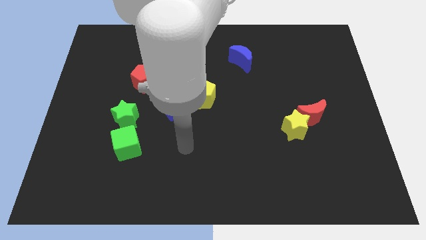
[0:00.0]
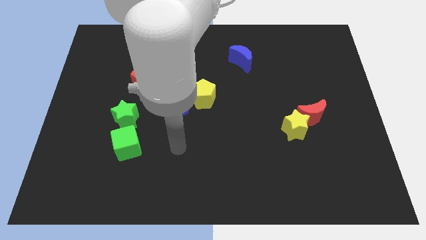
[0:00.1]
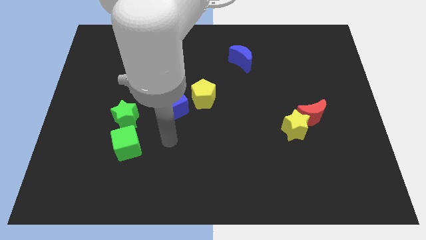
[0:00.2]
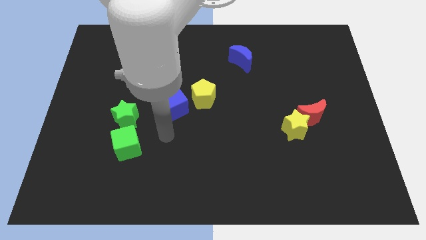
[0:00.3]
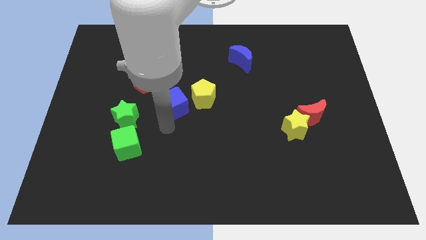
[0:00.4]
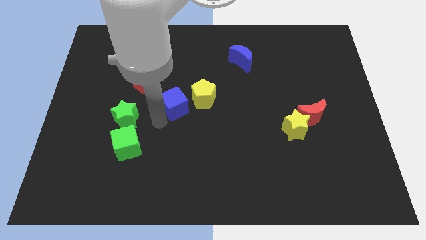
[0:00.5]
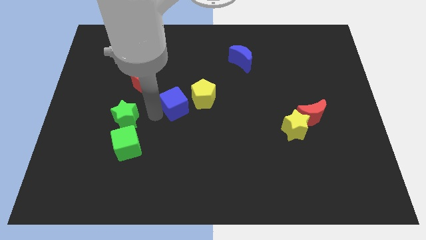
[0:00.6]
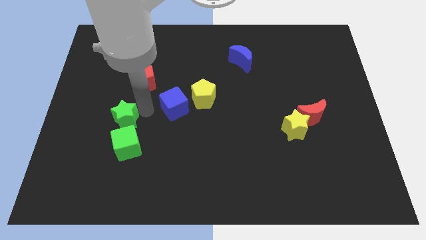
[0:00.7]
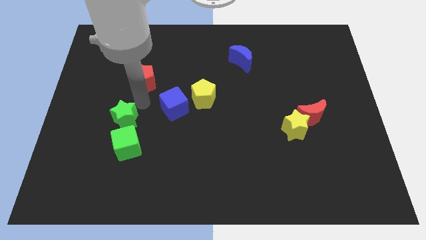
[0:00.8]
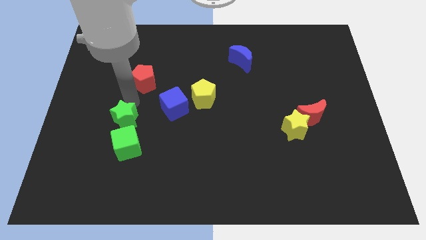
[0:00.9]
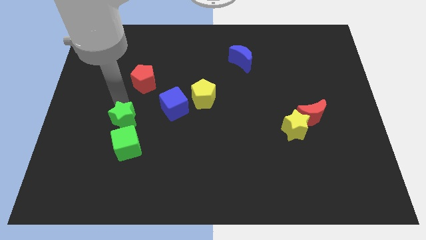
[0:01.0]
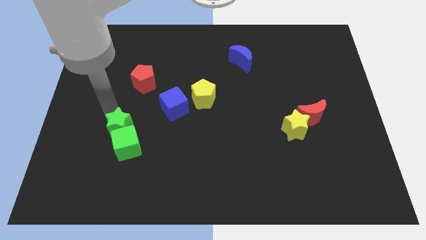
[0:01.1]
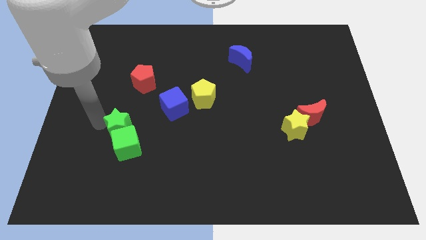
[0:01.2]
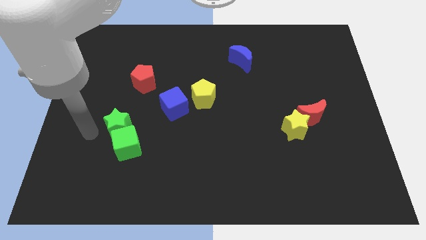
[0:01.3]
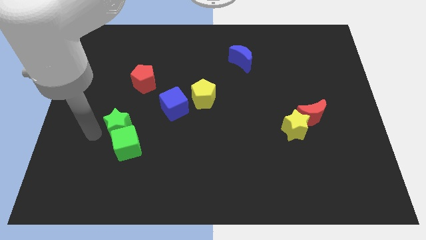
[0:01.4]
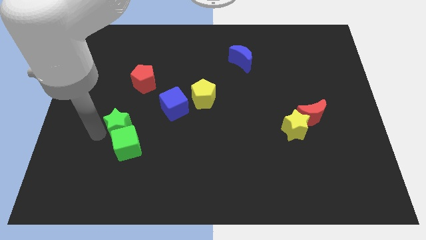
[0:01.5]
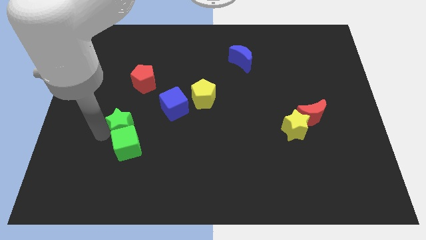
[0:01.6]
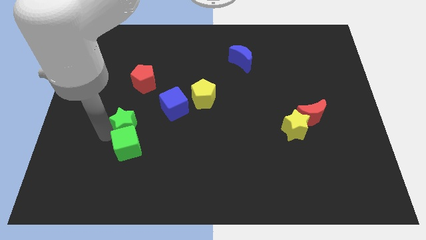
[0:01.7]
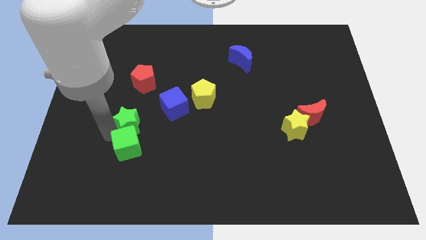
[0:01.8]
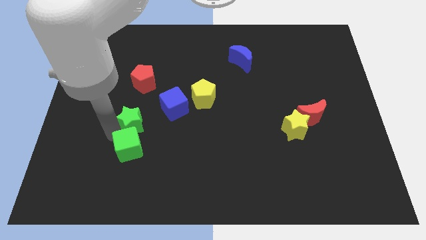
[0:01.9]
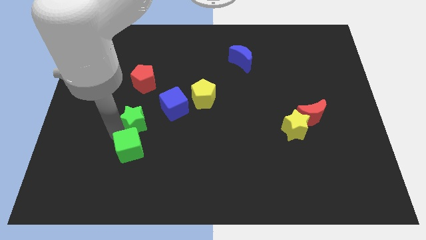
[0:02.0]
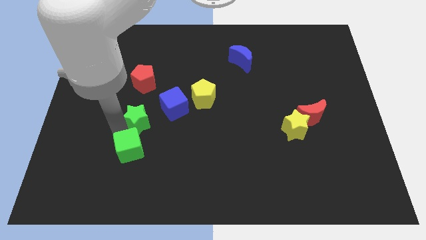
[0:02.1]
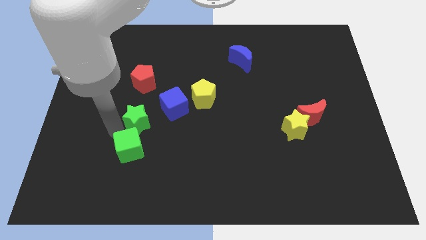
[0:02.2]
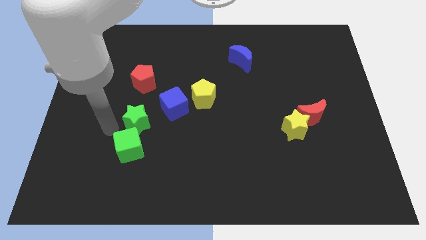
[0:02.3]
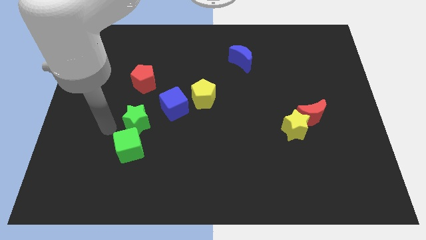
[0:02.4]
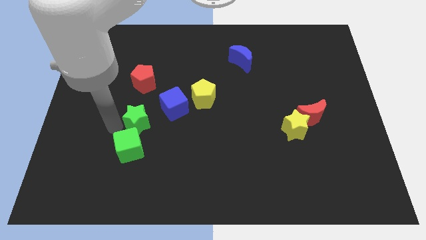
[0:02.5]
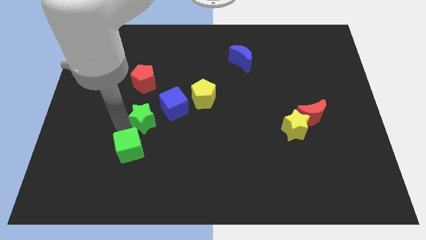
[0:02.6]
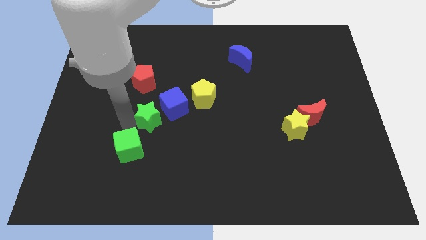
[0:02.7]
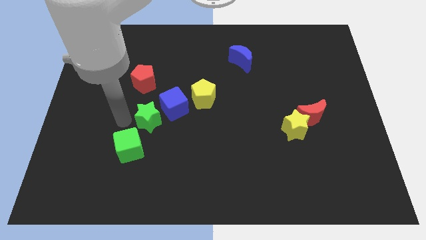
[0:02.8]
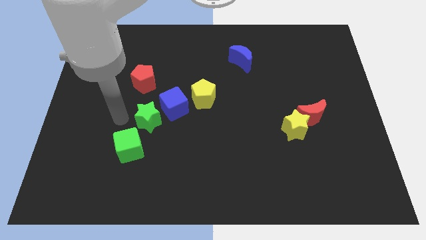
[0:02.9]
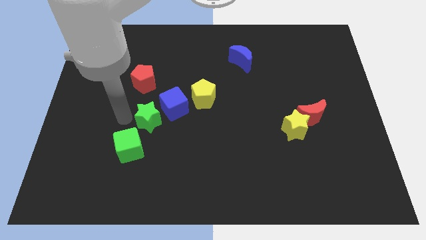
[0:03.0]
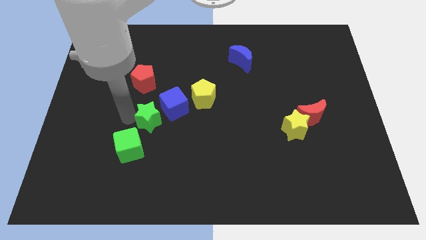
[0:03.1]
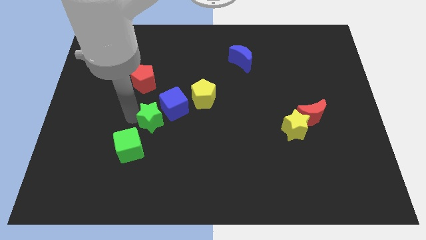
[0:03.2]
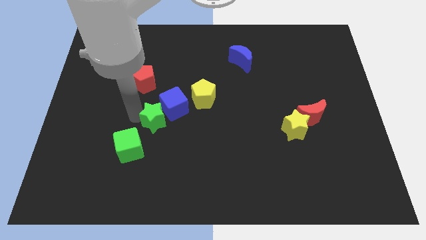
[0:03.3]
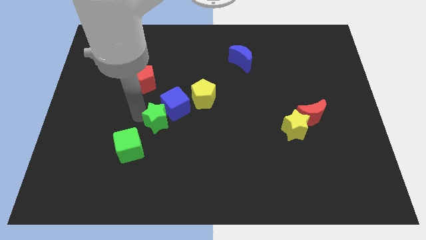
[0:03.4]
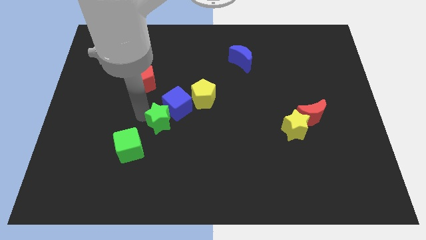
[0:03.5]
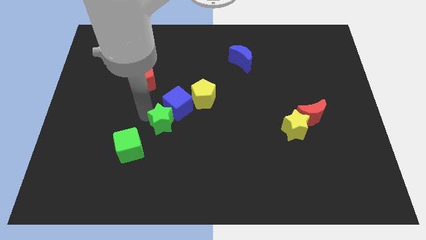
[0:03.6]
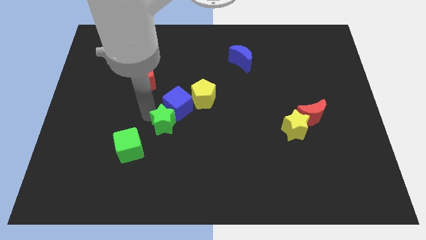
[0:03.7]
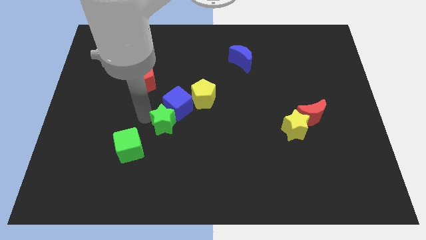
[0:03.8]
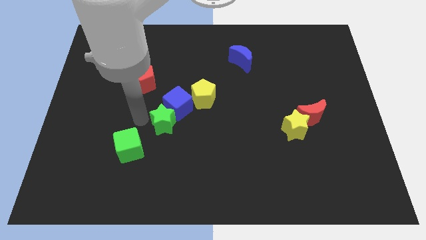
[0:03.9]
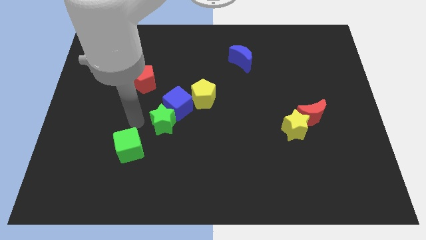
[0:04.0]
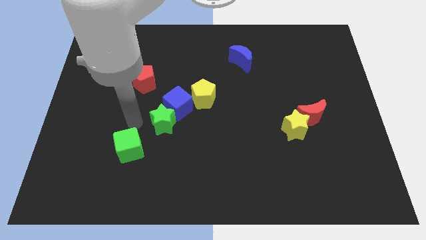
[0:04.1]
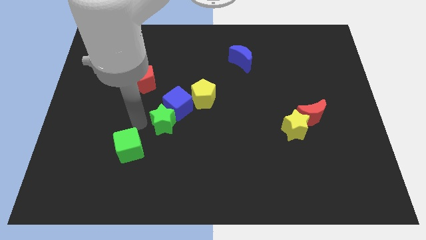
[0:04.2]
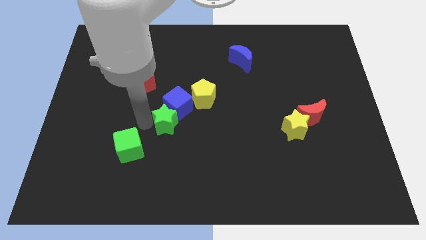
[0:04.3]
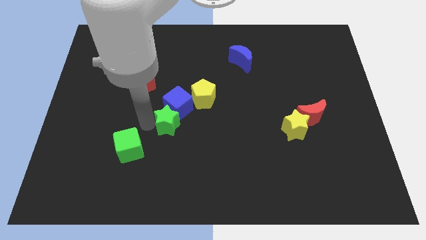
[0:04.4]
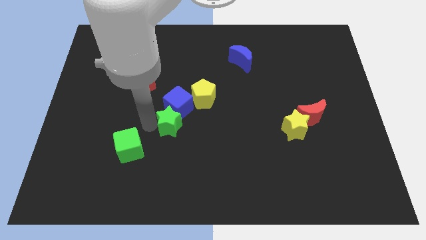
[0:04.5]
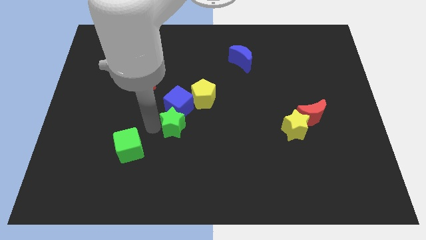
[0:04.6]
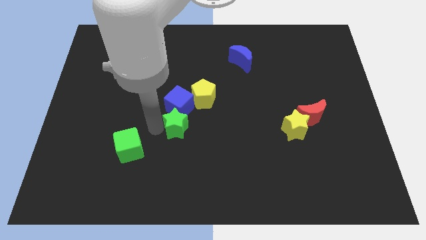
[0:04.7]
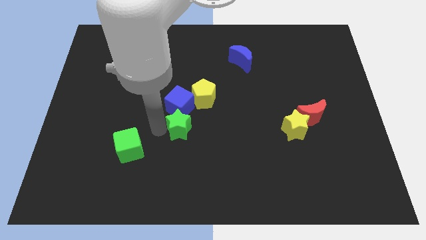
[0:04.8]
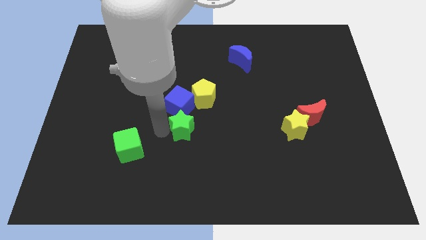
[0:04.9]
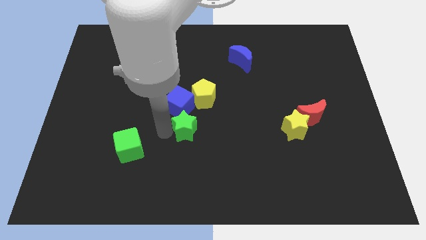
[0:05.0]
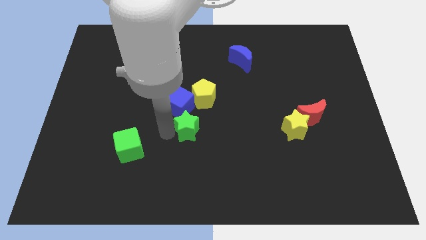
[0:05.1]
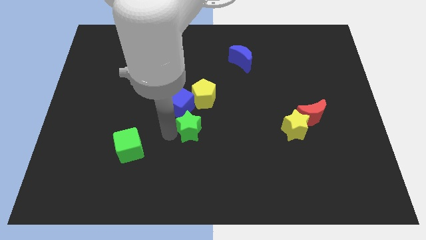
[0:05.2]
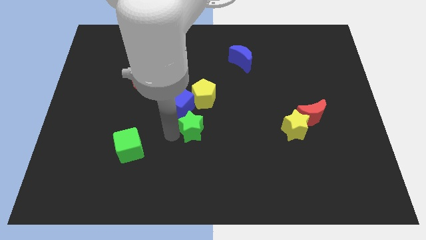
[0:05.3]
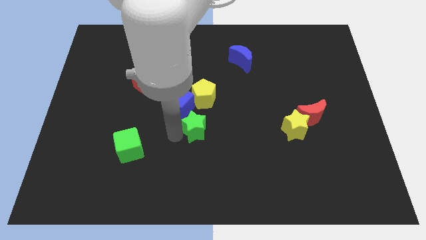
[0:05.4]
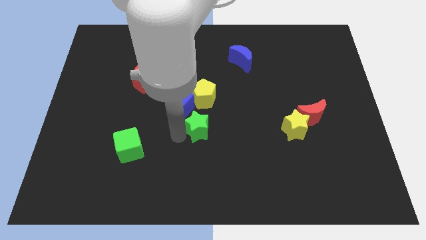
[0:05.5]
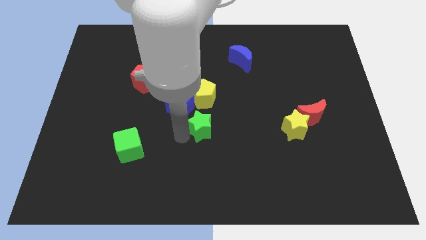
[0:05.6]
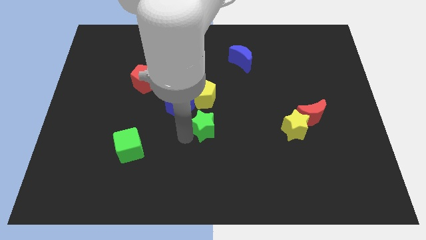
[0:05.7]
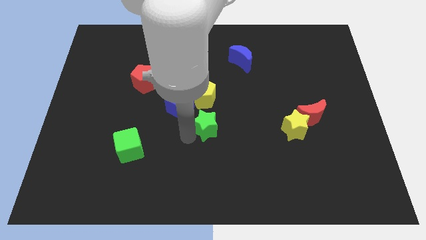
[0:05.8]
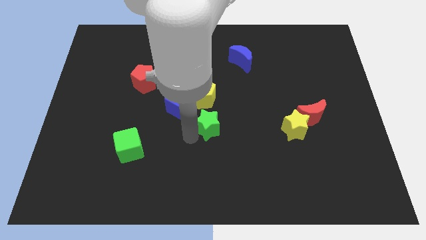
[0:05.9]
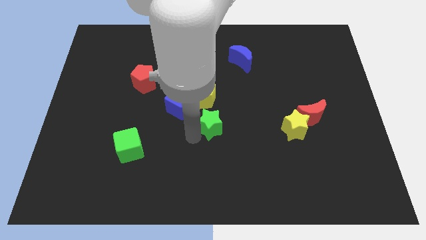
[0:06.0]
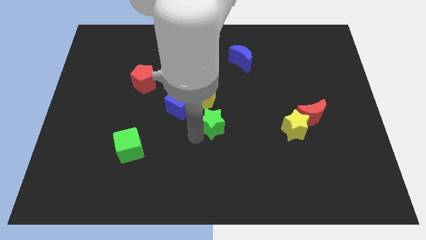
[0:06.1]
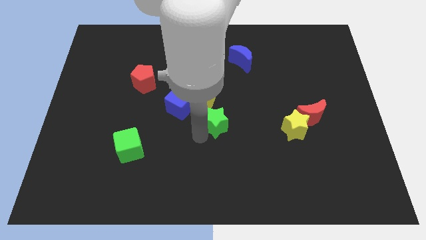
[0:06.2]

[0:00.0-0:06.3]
move the green star to the right

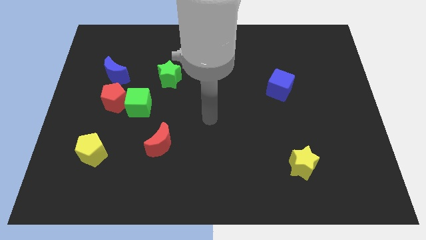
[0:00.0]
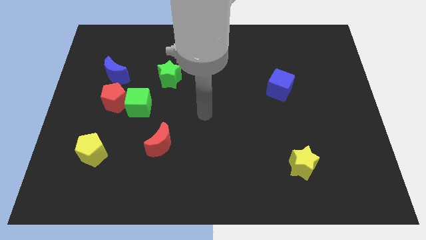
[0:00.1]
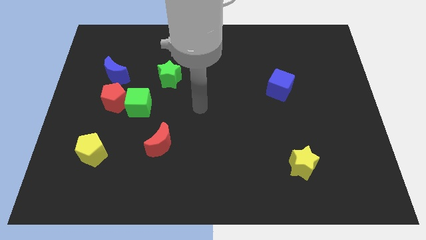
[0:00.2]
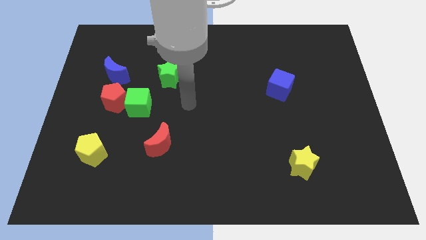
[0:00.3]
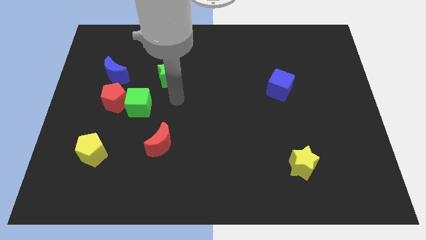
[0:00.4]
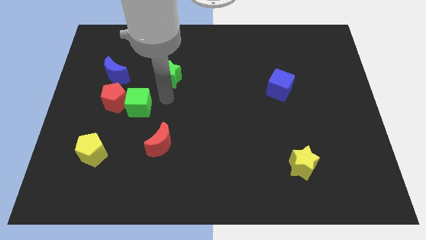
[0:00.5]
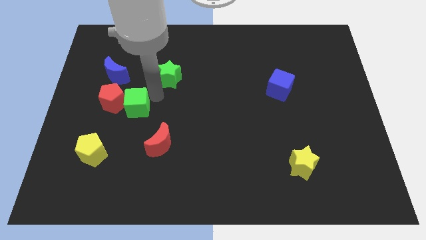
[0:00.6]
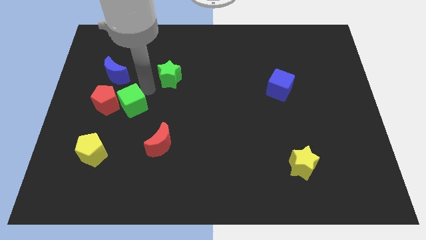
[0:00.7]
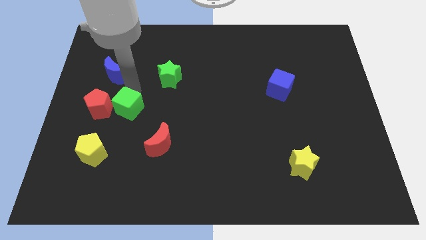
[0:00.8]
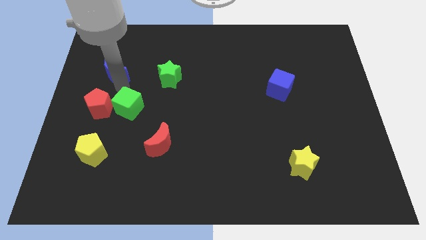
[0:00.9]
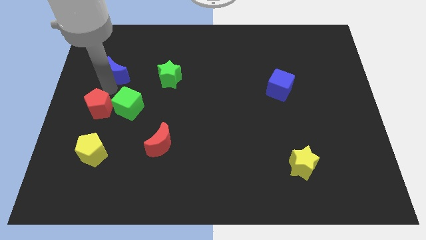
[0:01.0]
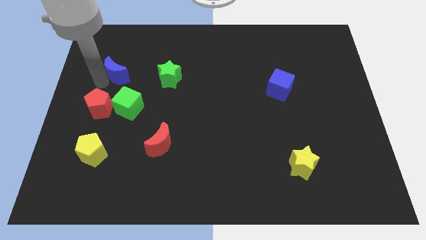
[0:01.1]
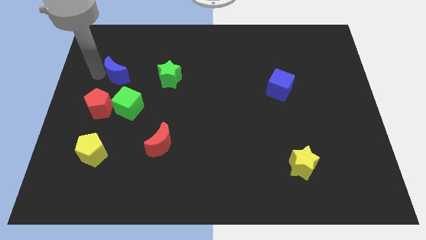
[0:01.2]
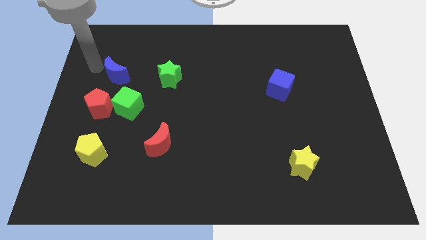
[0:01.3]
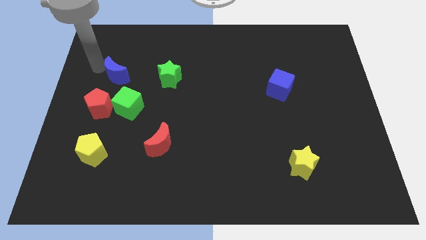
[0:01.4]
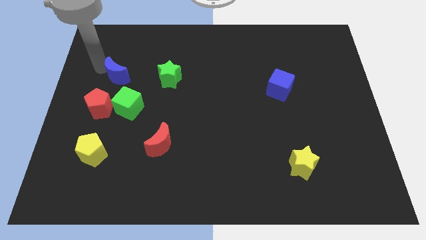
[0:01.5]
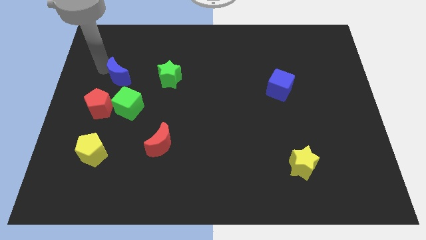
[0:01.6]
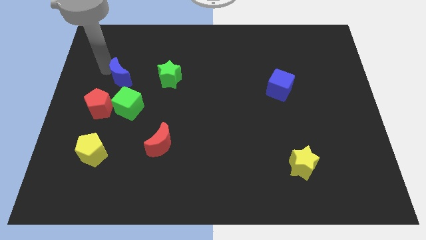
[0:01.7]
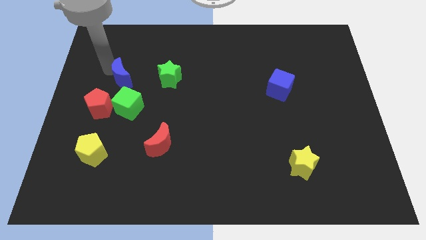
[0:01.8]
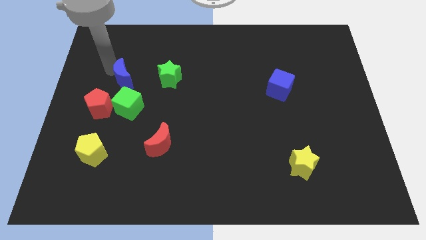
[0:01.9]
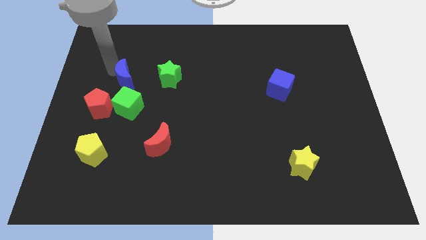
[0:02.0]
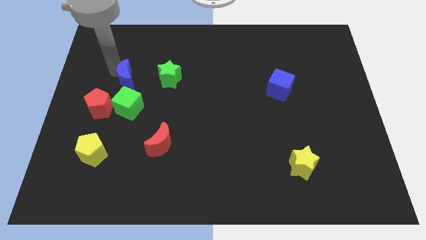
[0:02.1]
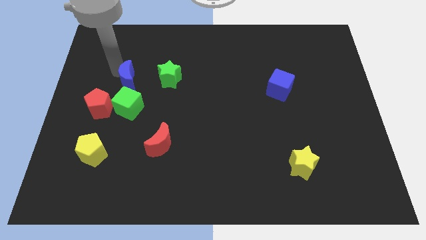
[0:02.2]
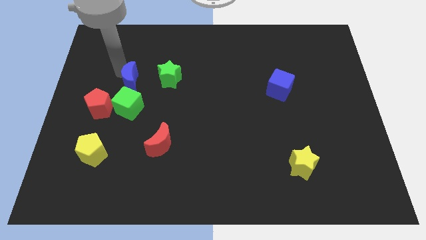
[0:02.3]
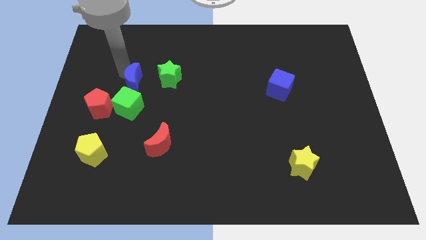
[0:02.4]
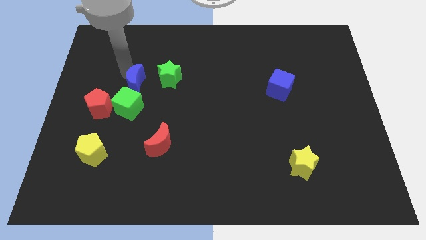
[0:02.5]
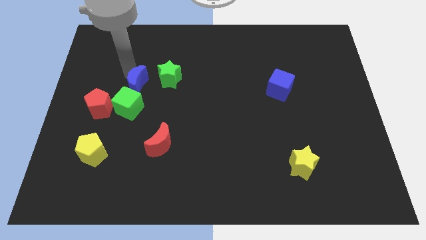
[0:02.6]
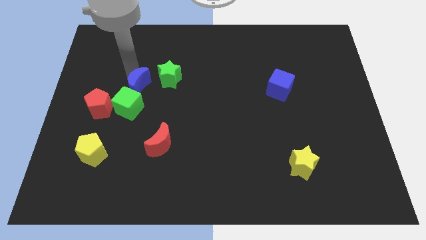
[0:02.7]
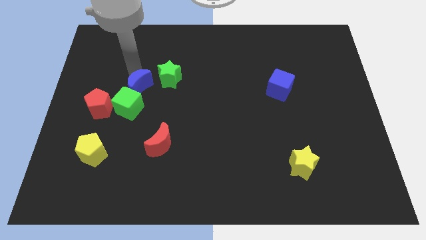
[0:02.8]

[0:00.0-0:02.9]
slide the blue moon a little down and right
